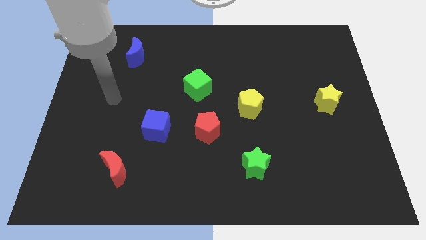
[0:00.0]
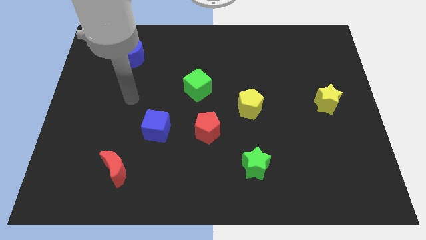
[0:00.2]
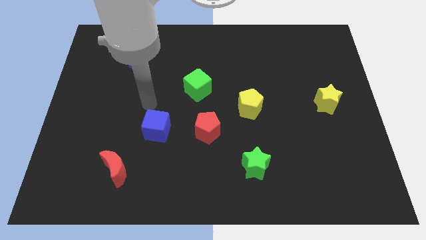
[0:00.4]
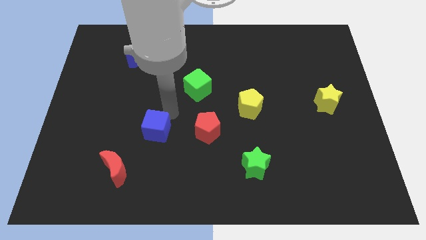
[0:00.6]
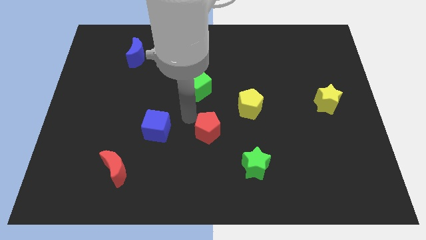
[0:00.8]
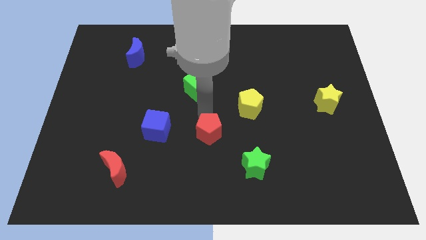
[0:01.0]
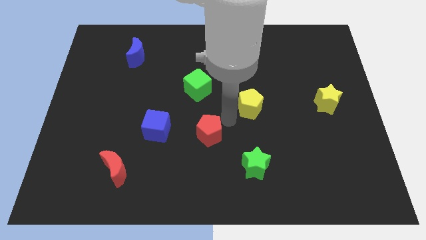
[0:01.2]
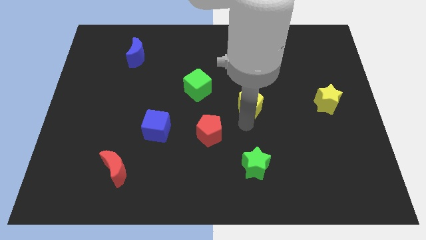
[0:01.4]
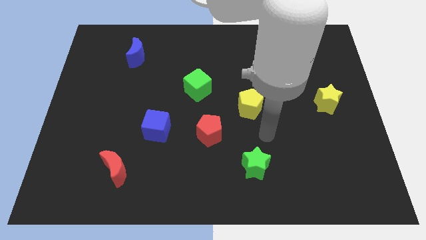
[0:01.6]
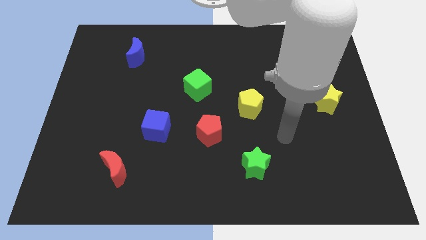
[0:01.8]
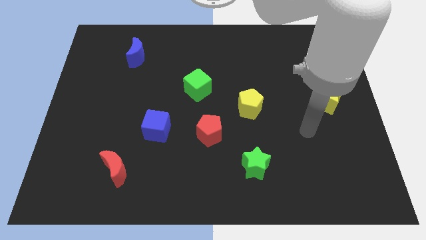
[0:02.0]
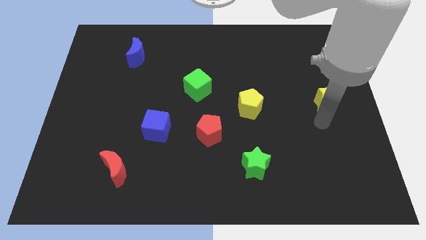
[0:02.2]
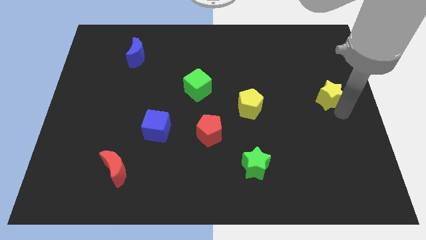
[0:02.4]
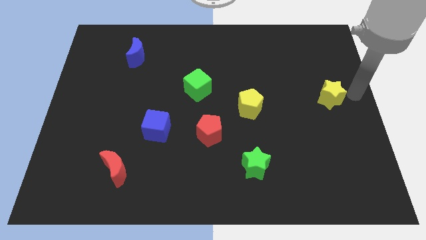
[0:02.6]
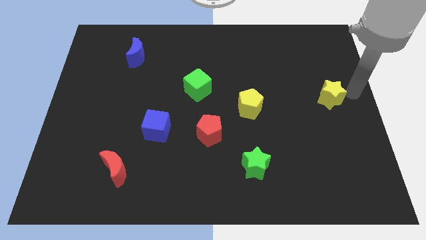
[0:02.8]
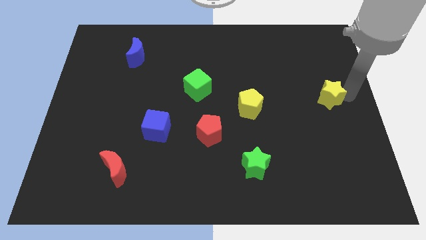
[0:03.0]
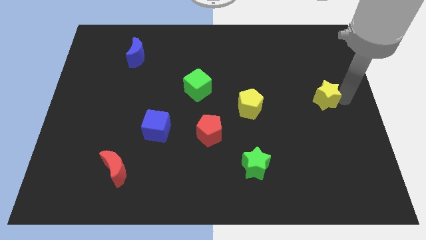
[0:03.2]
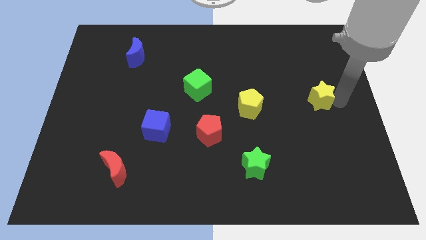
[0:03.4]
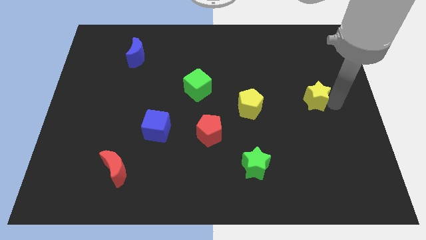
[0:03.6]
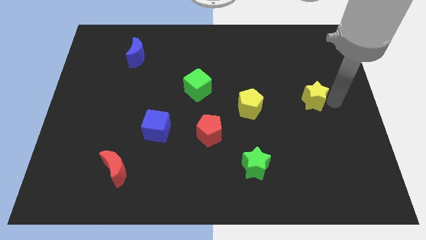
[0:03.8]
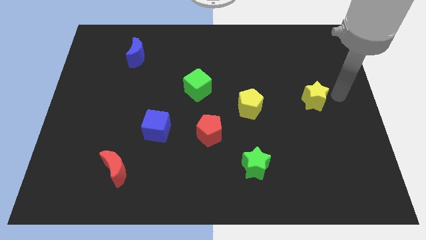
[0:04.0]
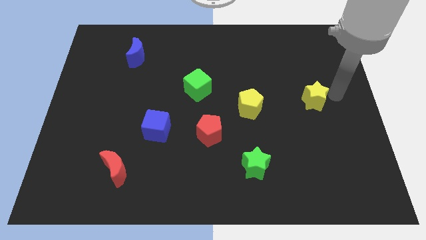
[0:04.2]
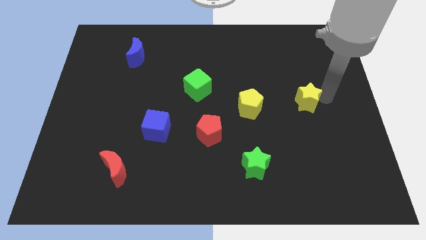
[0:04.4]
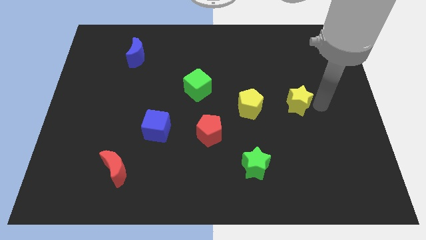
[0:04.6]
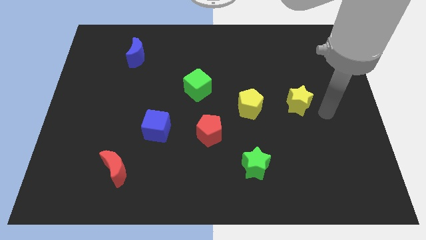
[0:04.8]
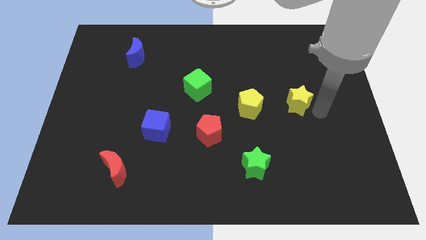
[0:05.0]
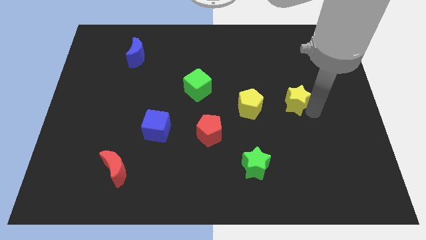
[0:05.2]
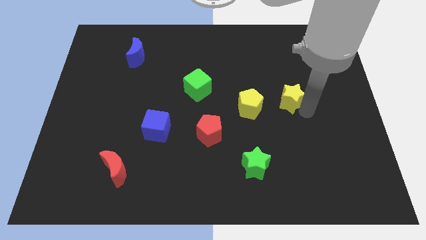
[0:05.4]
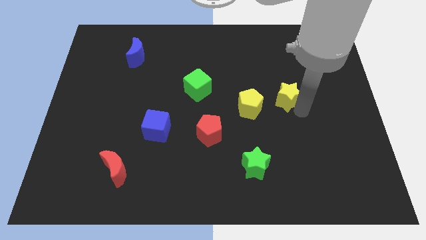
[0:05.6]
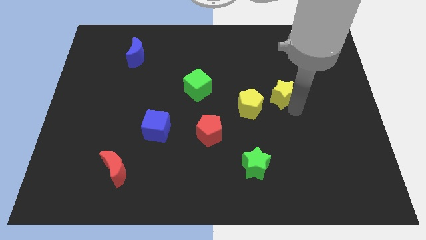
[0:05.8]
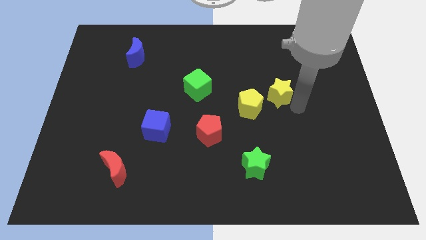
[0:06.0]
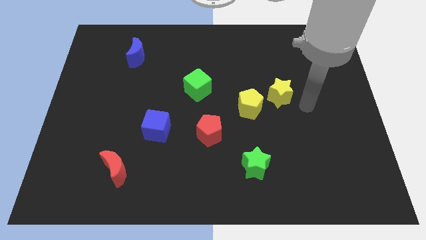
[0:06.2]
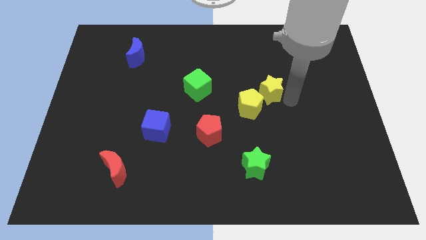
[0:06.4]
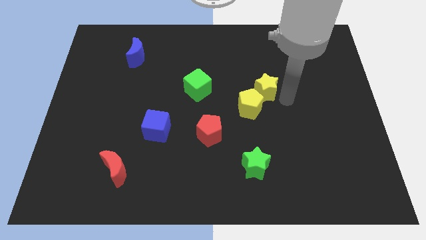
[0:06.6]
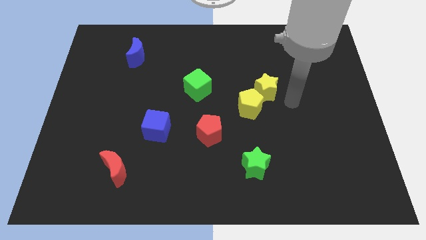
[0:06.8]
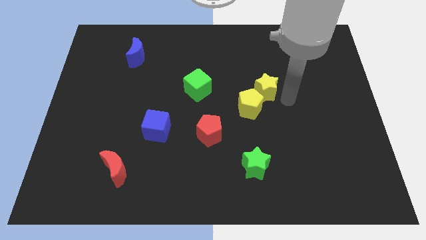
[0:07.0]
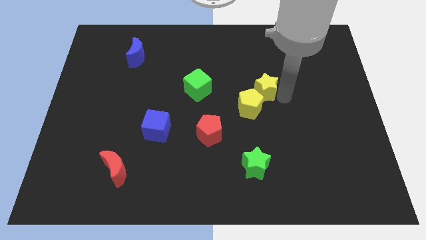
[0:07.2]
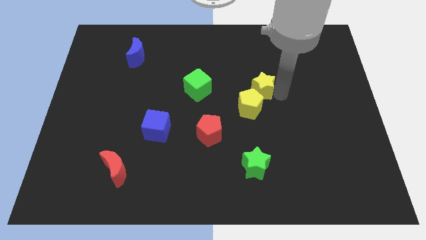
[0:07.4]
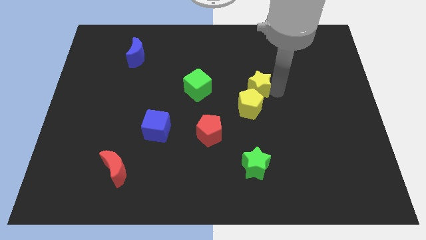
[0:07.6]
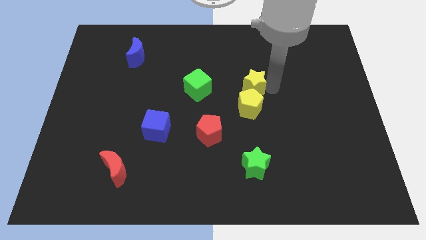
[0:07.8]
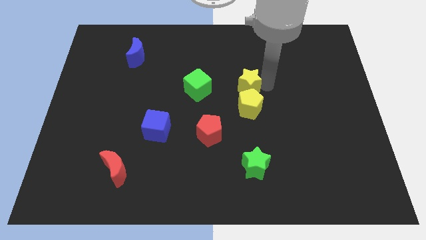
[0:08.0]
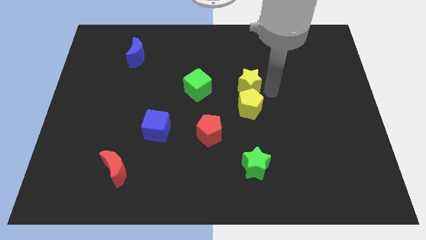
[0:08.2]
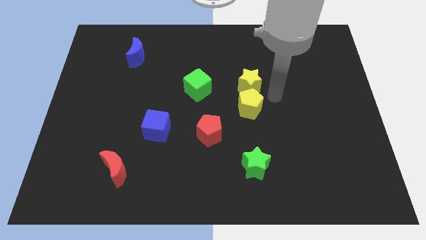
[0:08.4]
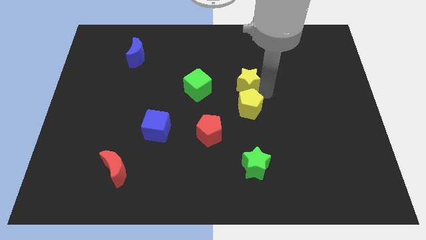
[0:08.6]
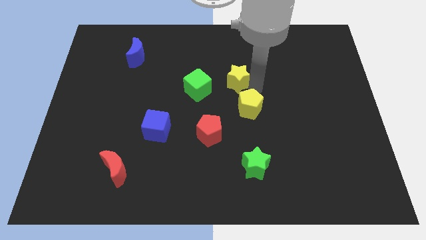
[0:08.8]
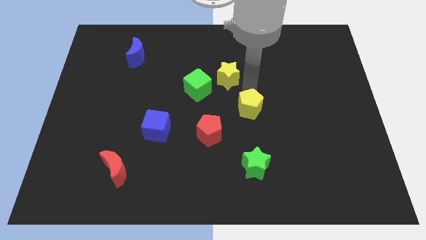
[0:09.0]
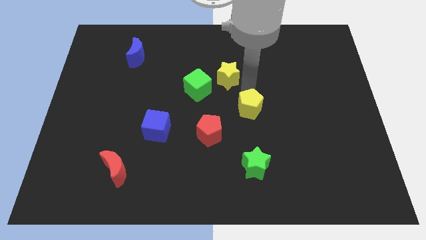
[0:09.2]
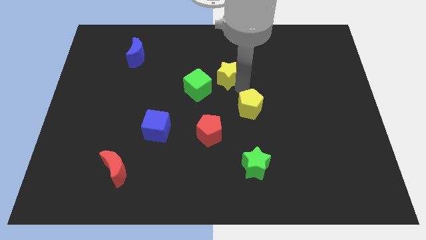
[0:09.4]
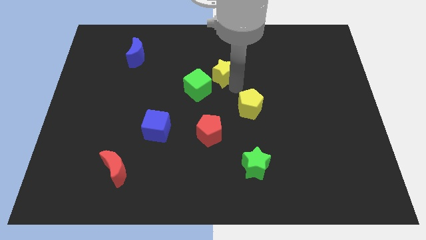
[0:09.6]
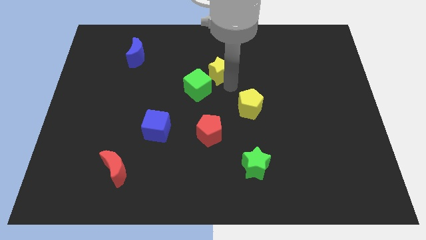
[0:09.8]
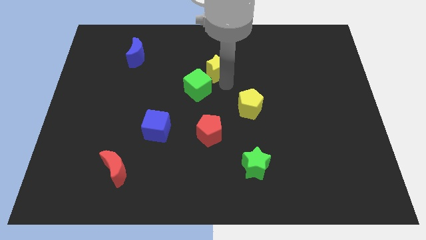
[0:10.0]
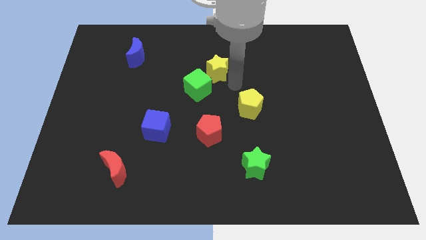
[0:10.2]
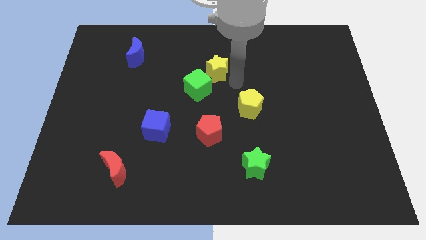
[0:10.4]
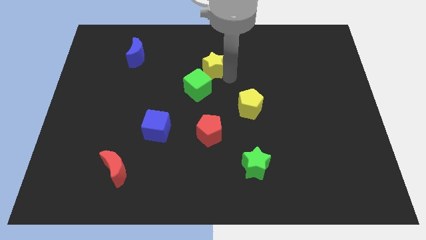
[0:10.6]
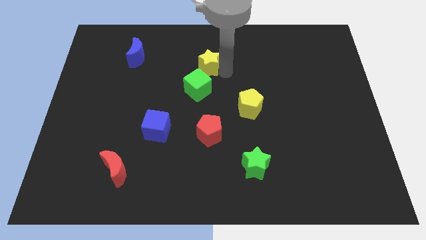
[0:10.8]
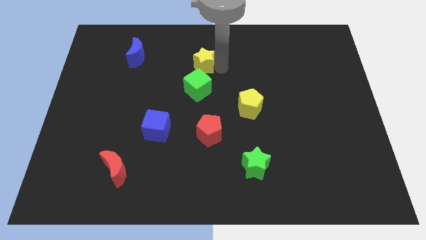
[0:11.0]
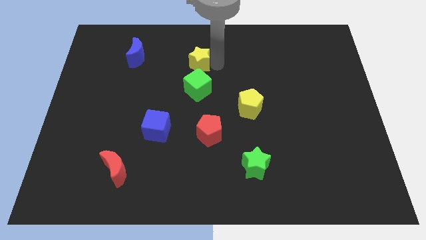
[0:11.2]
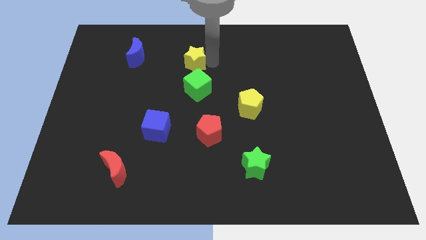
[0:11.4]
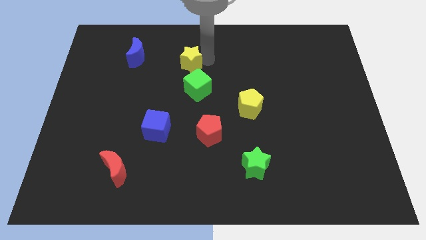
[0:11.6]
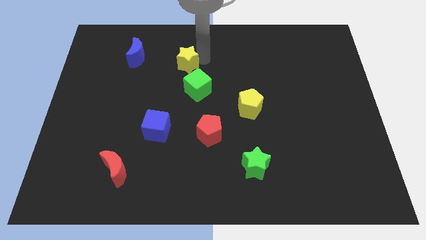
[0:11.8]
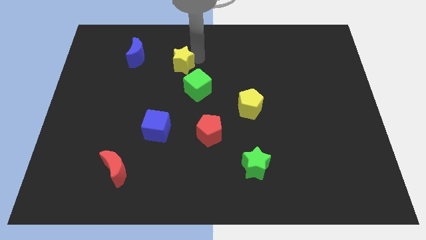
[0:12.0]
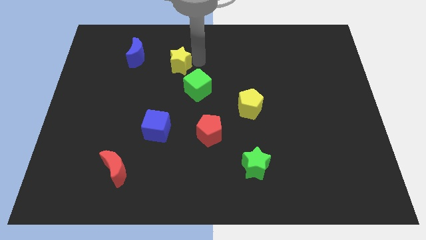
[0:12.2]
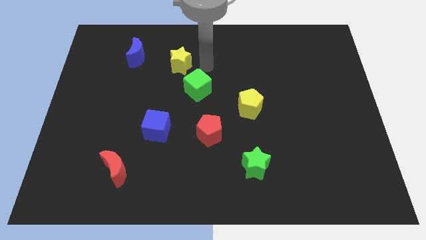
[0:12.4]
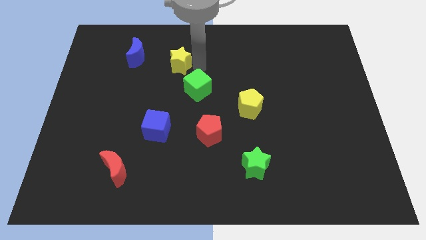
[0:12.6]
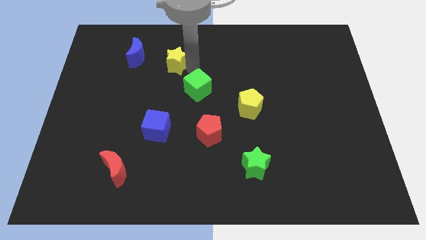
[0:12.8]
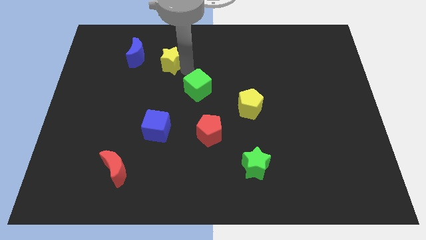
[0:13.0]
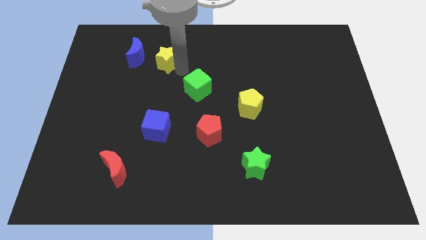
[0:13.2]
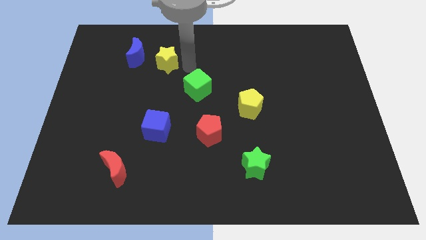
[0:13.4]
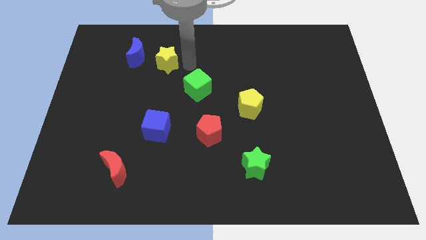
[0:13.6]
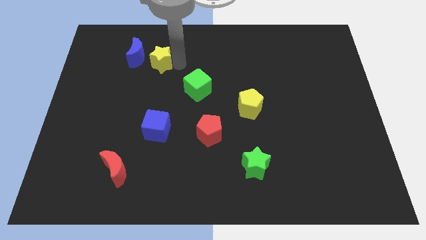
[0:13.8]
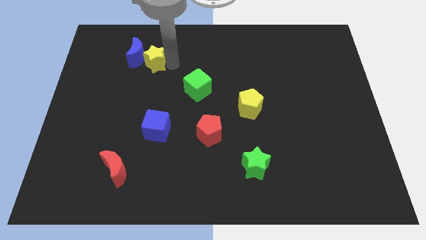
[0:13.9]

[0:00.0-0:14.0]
put the yellow star close to the blue moon

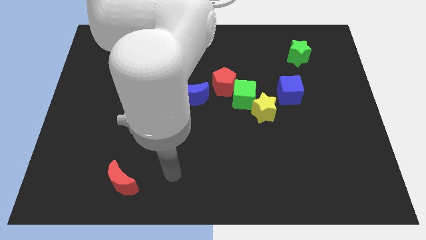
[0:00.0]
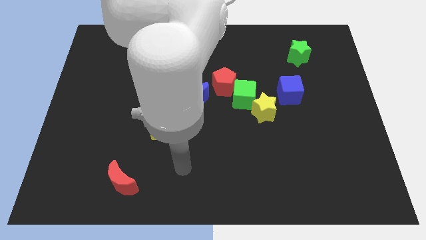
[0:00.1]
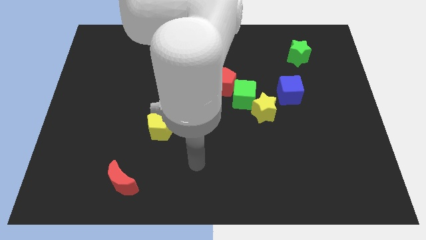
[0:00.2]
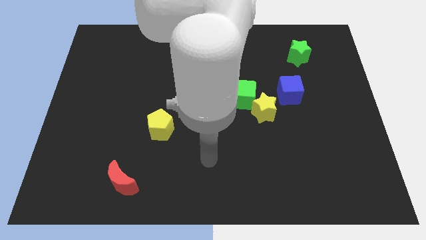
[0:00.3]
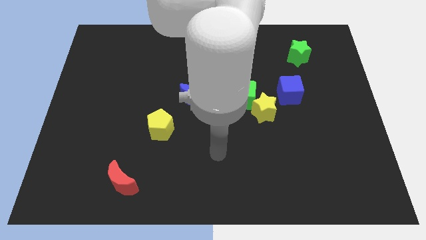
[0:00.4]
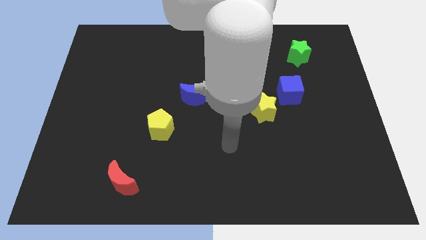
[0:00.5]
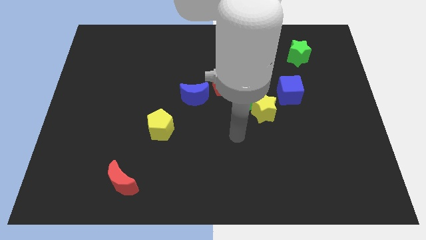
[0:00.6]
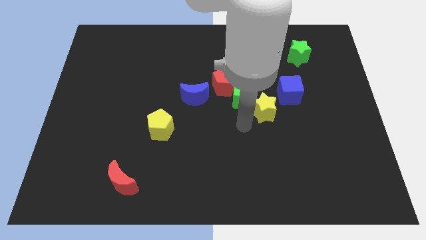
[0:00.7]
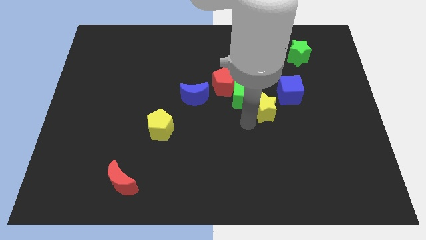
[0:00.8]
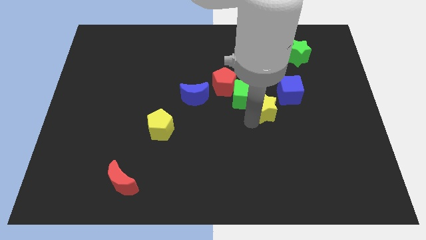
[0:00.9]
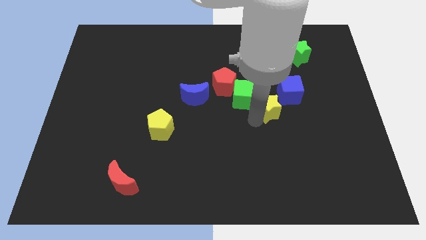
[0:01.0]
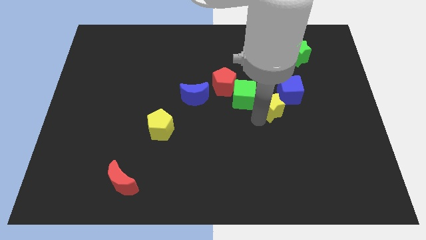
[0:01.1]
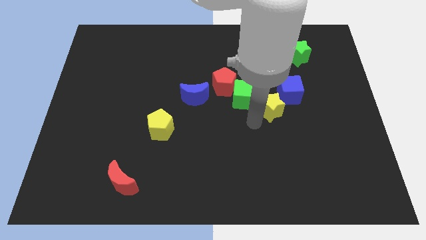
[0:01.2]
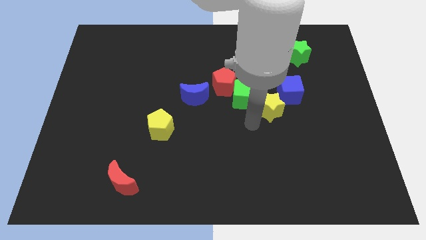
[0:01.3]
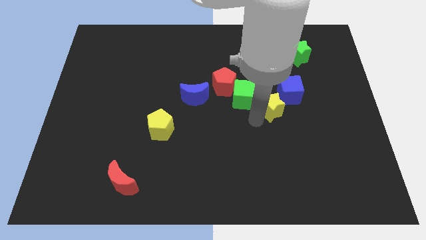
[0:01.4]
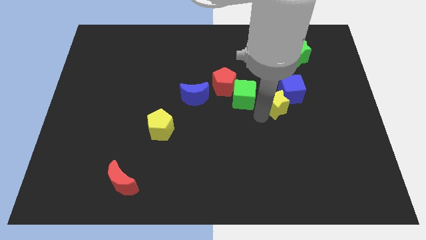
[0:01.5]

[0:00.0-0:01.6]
move the yellow star towards the blue cube
